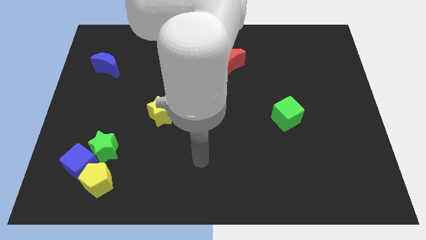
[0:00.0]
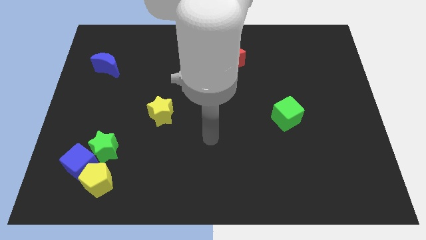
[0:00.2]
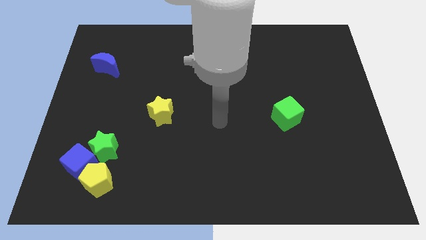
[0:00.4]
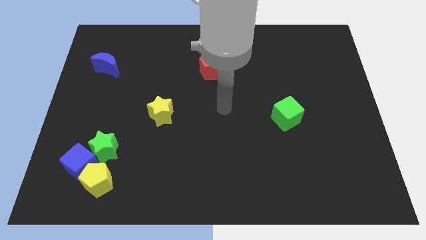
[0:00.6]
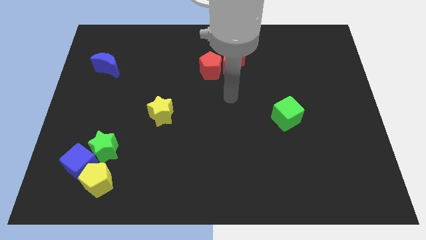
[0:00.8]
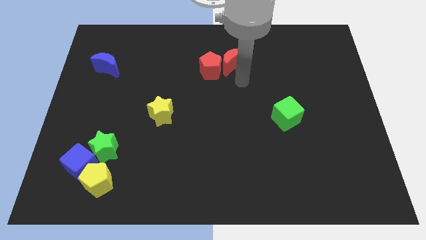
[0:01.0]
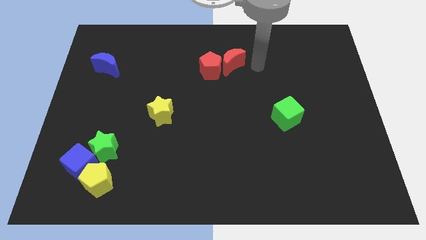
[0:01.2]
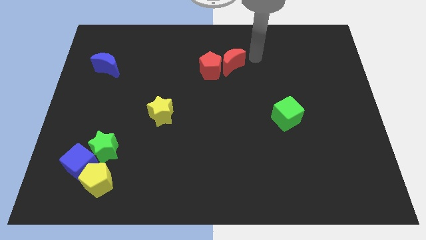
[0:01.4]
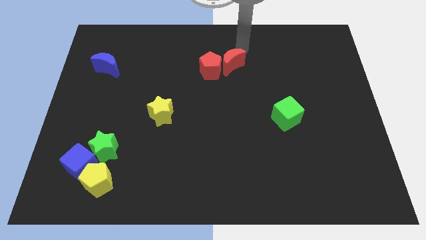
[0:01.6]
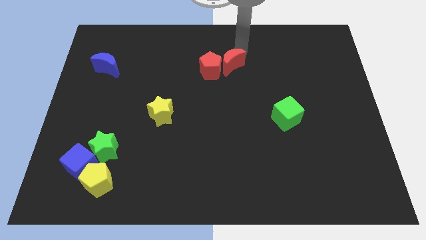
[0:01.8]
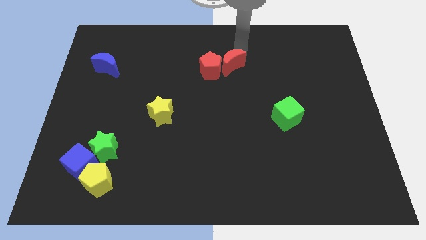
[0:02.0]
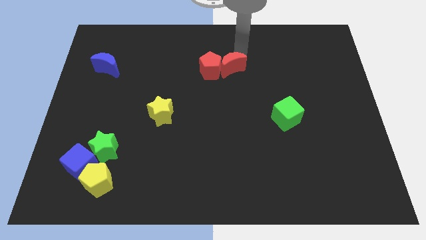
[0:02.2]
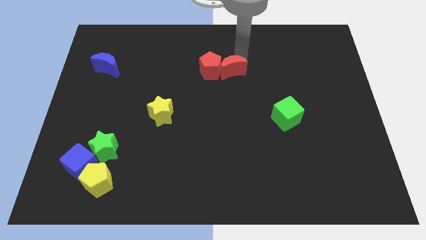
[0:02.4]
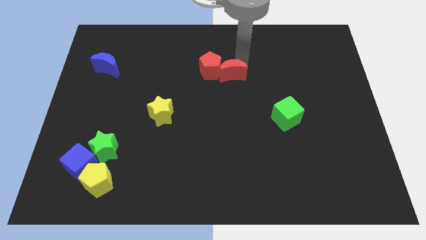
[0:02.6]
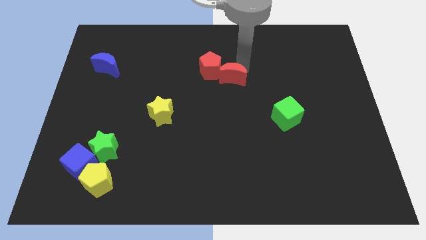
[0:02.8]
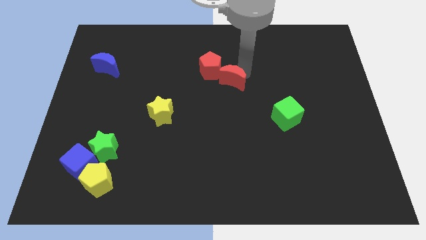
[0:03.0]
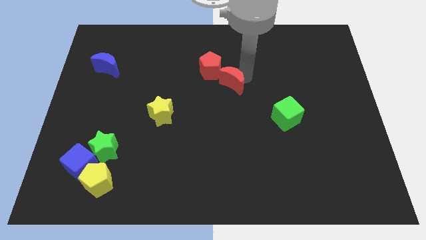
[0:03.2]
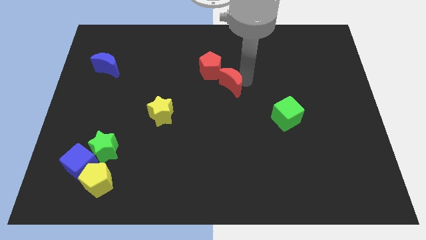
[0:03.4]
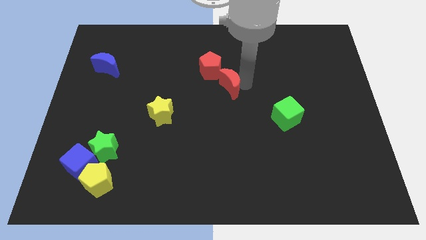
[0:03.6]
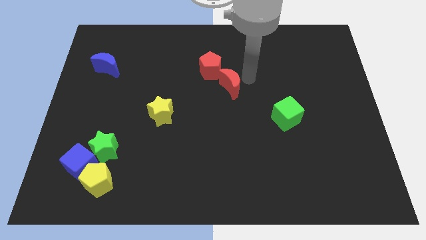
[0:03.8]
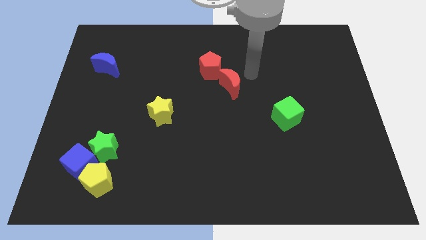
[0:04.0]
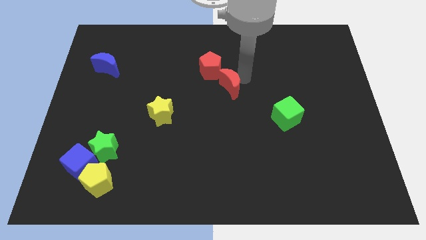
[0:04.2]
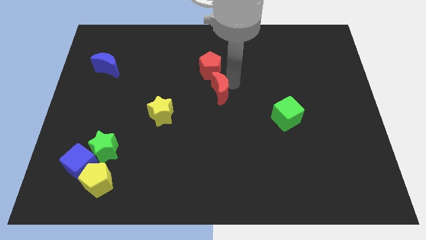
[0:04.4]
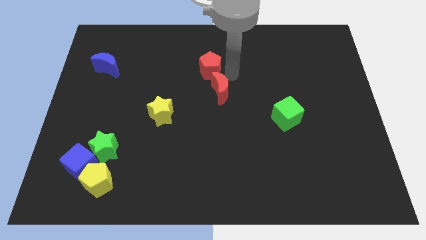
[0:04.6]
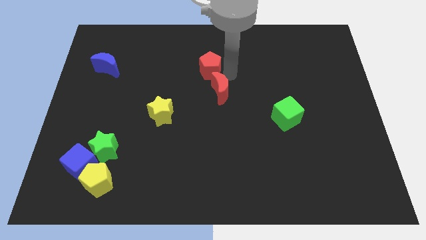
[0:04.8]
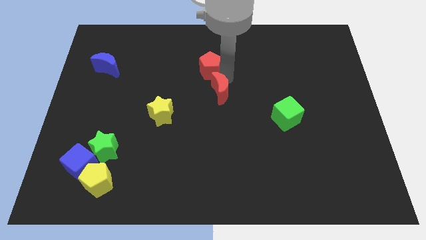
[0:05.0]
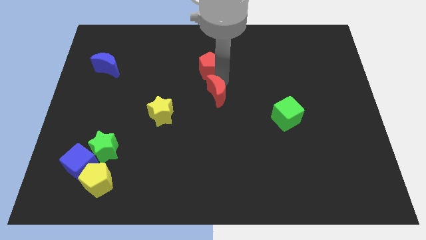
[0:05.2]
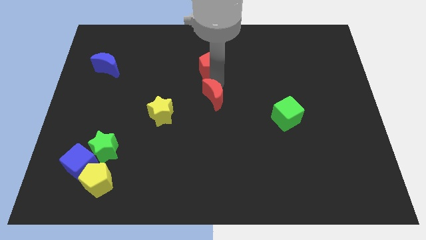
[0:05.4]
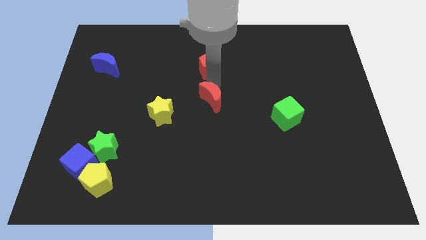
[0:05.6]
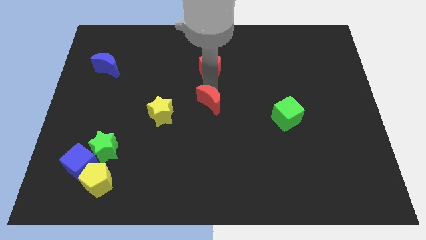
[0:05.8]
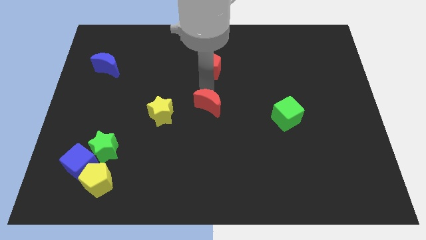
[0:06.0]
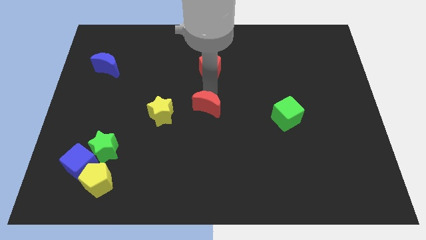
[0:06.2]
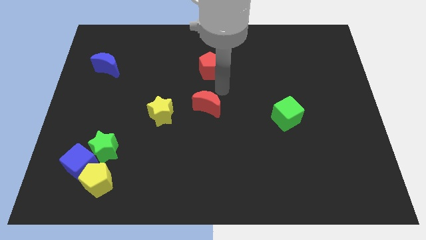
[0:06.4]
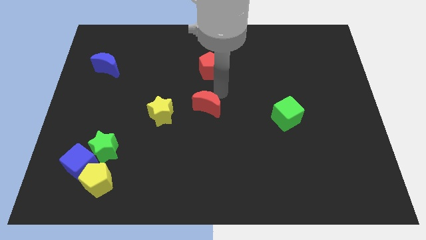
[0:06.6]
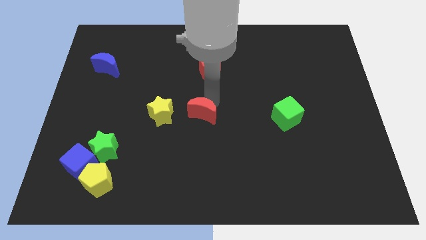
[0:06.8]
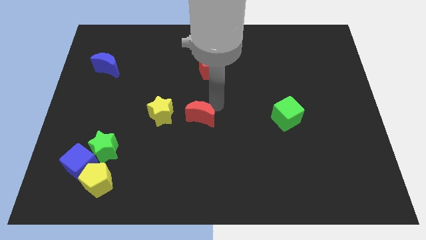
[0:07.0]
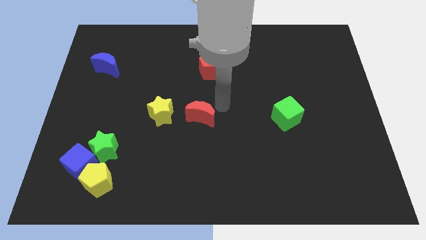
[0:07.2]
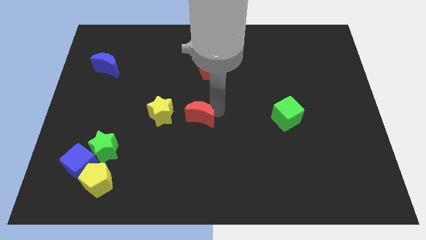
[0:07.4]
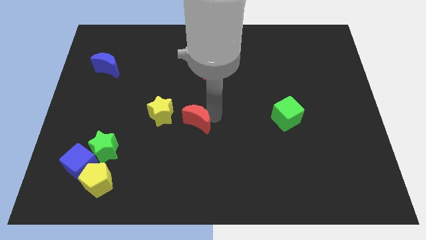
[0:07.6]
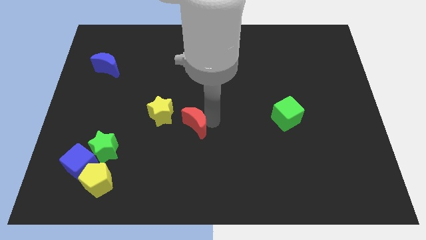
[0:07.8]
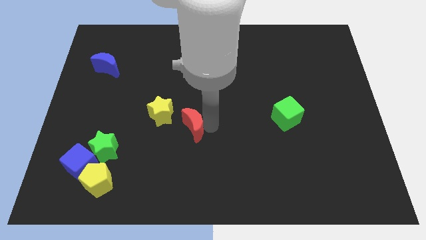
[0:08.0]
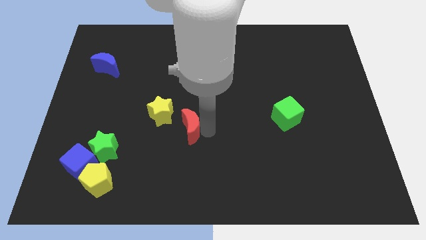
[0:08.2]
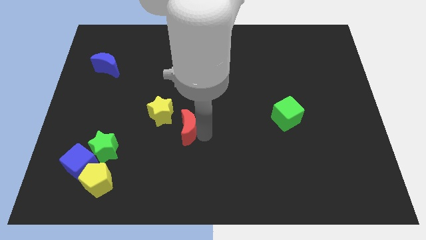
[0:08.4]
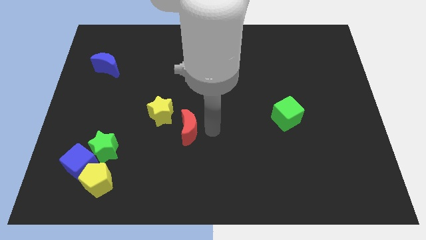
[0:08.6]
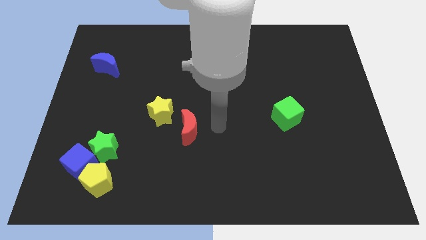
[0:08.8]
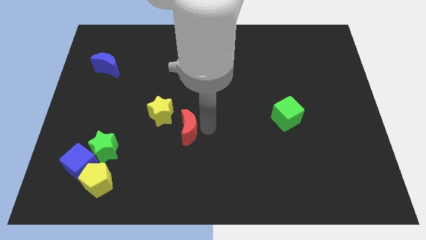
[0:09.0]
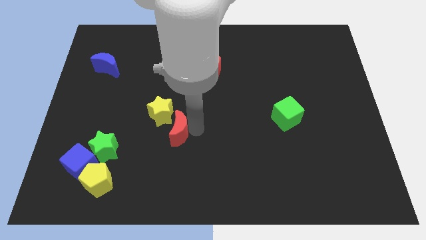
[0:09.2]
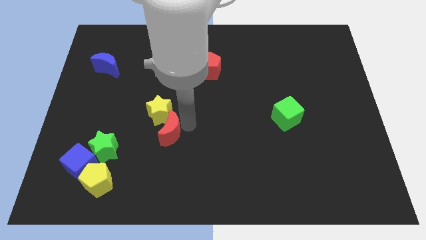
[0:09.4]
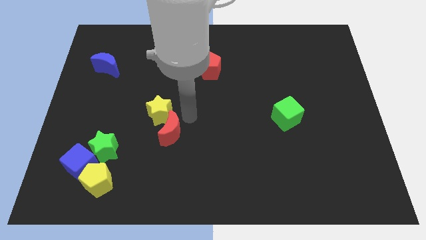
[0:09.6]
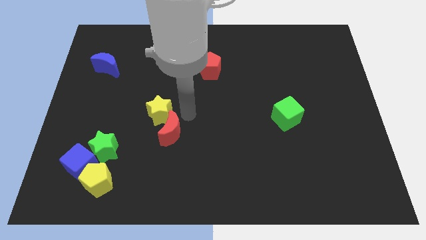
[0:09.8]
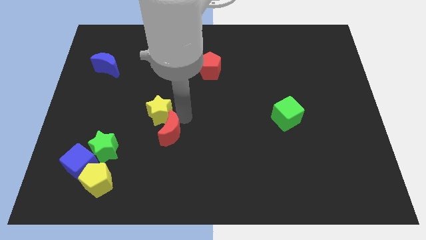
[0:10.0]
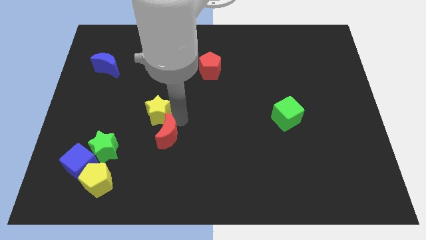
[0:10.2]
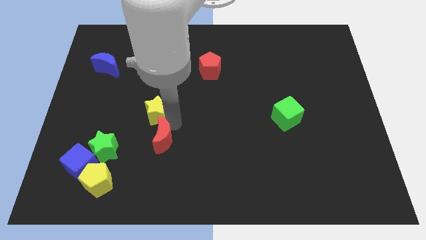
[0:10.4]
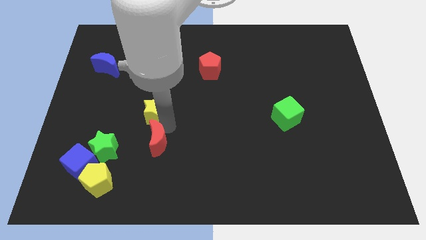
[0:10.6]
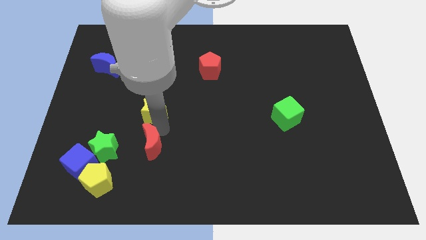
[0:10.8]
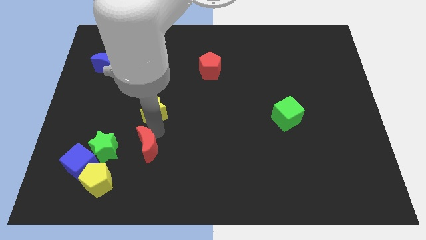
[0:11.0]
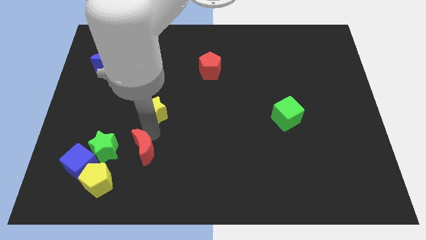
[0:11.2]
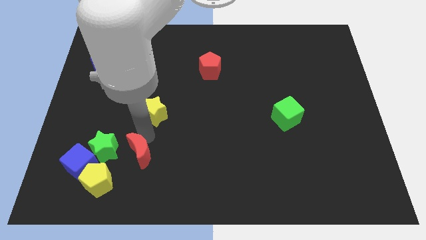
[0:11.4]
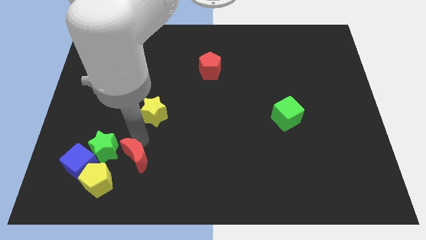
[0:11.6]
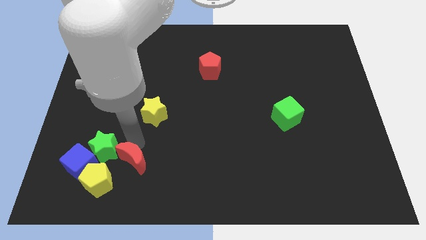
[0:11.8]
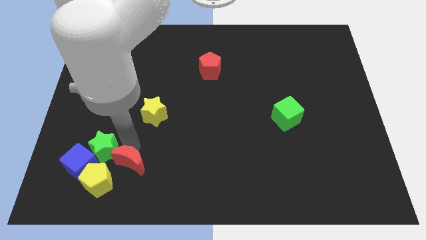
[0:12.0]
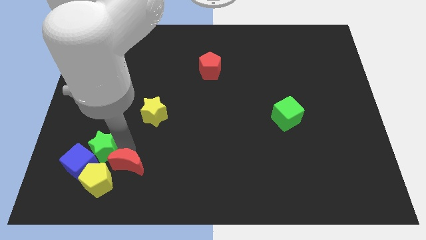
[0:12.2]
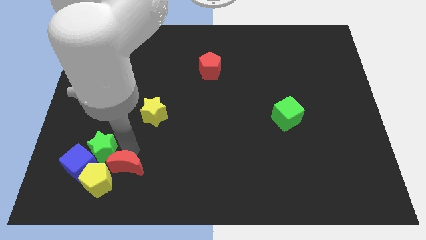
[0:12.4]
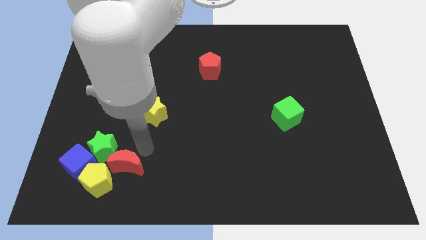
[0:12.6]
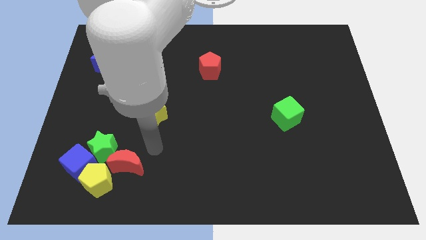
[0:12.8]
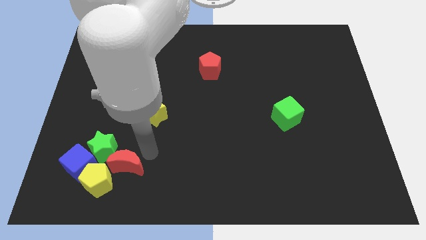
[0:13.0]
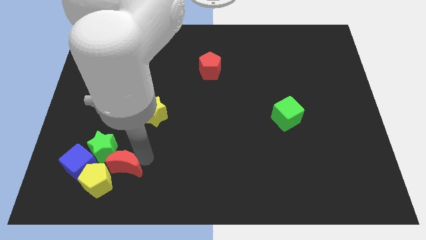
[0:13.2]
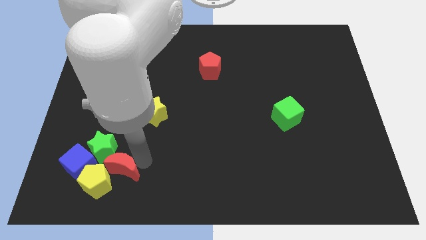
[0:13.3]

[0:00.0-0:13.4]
put the red moon towards the yellow pentagon

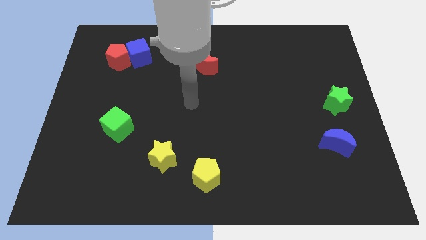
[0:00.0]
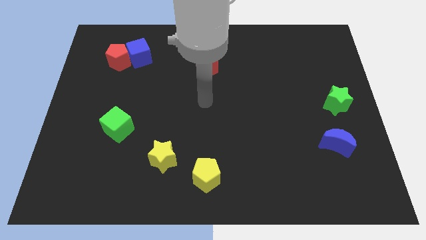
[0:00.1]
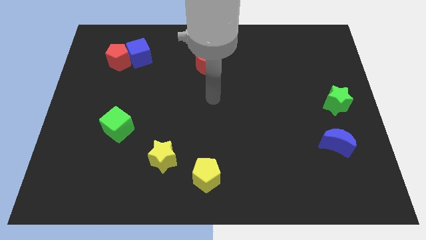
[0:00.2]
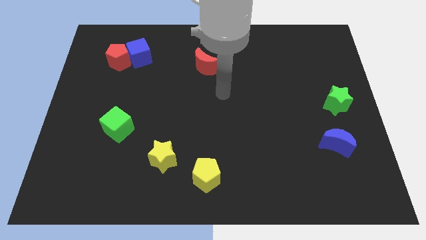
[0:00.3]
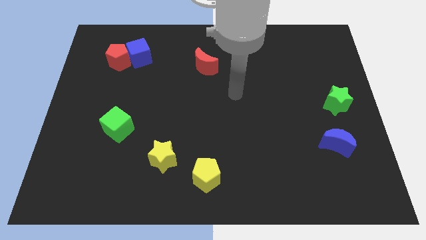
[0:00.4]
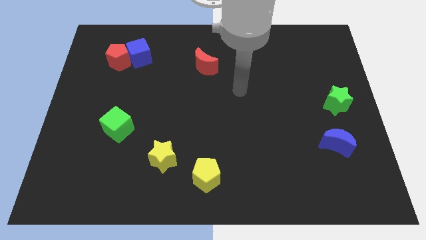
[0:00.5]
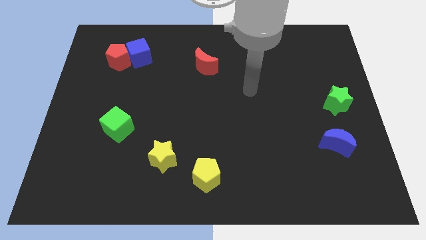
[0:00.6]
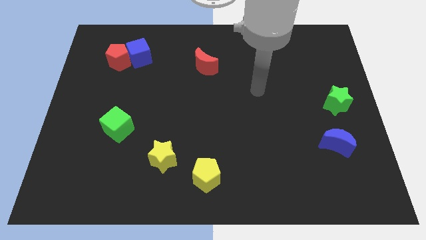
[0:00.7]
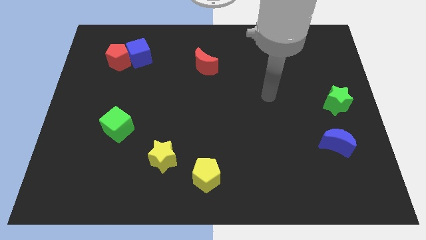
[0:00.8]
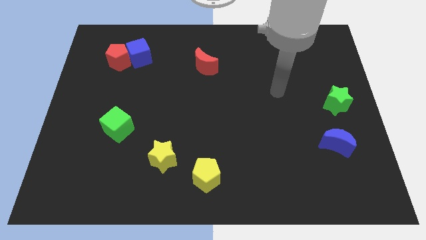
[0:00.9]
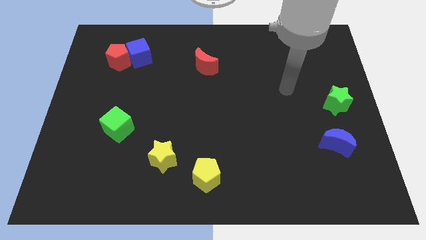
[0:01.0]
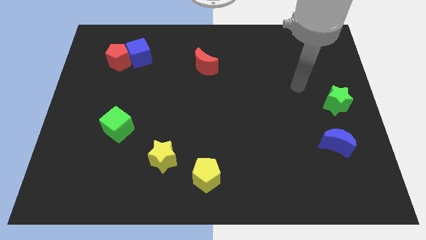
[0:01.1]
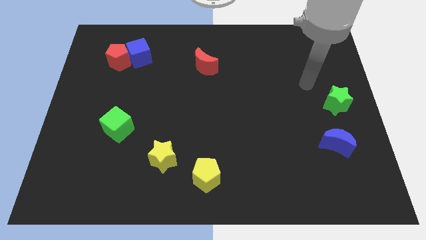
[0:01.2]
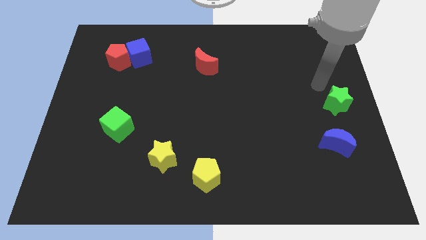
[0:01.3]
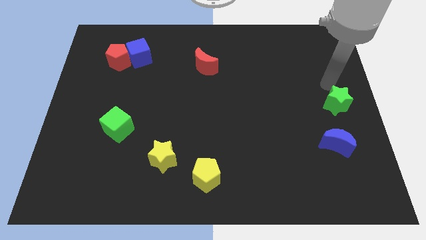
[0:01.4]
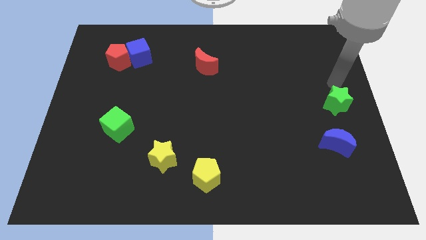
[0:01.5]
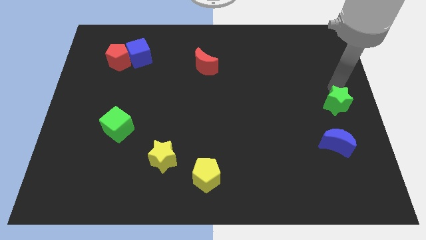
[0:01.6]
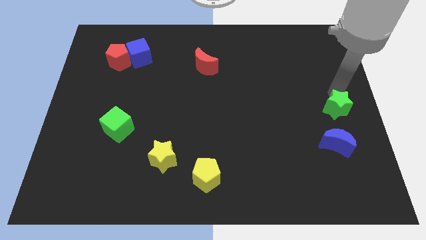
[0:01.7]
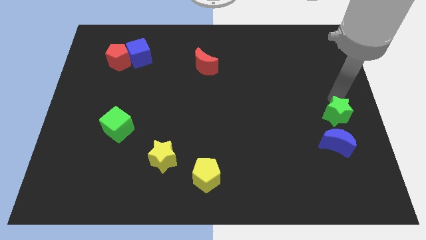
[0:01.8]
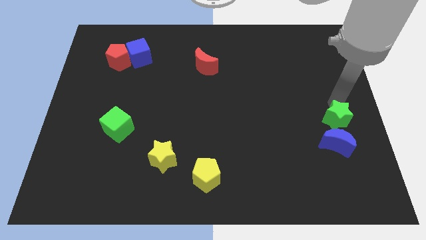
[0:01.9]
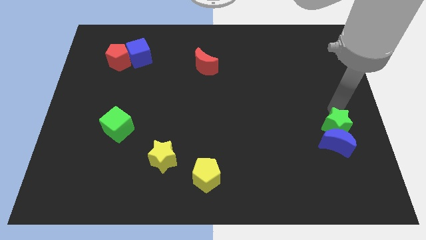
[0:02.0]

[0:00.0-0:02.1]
slide the green star close to the blue moon
